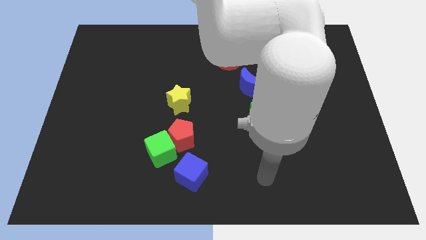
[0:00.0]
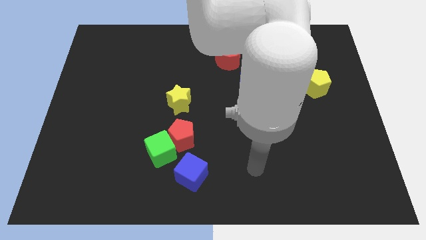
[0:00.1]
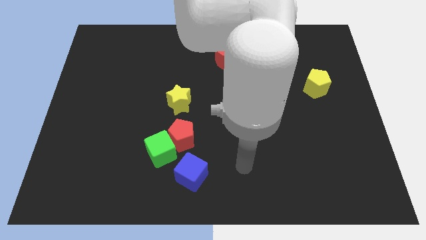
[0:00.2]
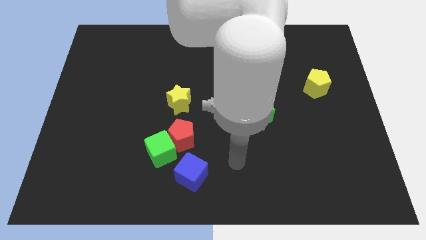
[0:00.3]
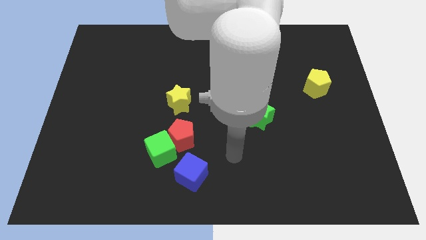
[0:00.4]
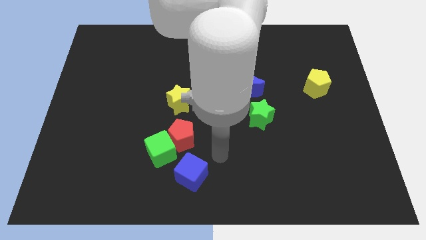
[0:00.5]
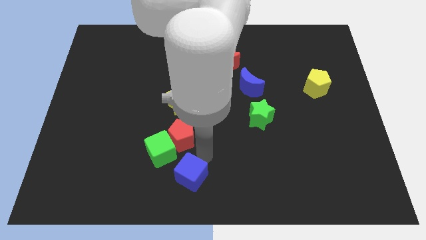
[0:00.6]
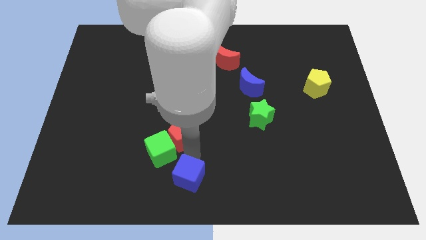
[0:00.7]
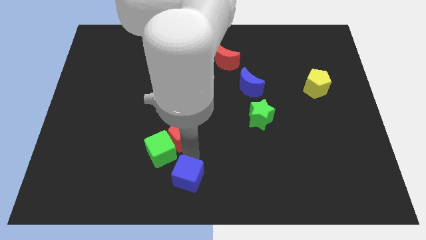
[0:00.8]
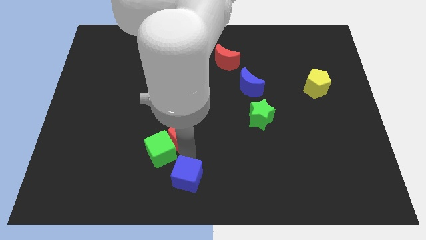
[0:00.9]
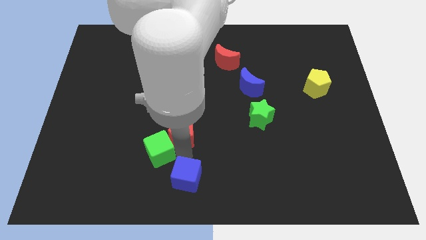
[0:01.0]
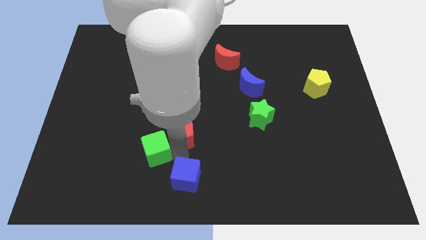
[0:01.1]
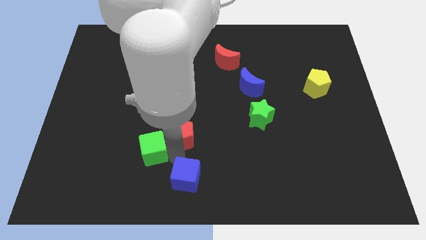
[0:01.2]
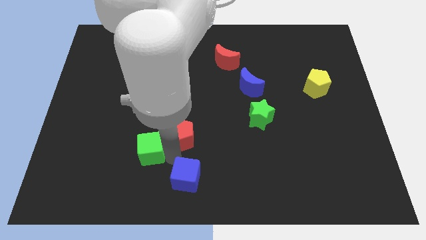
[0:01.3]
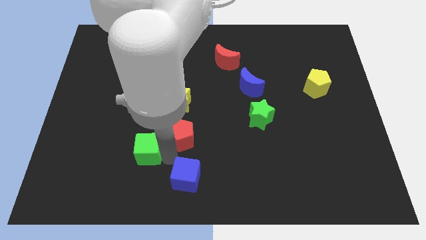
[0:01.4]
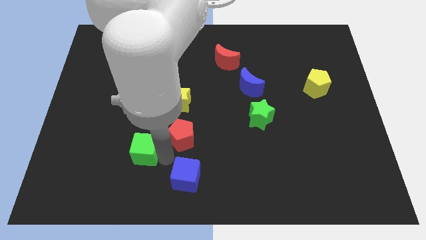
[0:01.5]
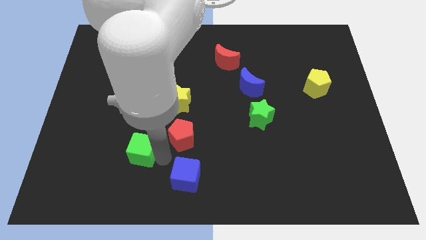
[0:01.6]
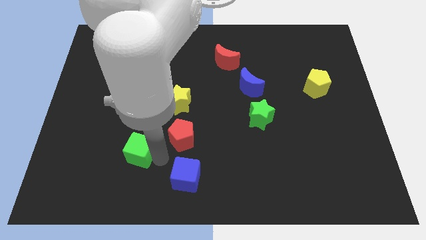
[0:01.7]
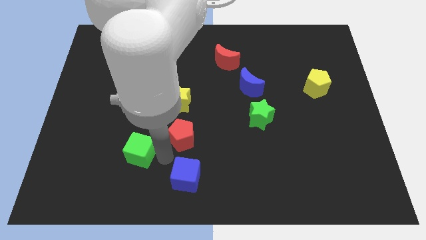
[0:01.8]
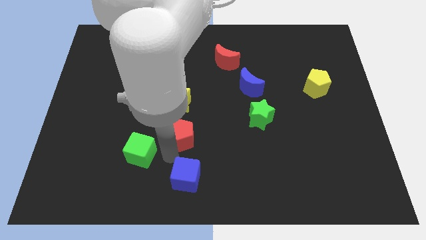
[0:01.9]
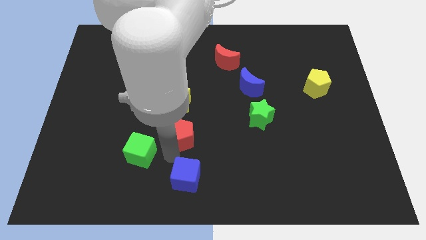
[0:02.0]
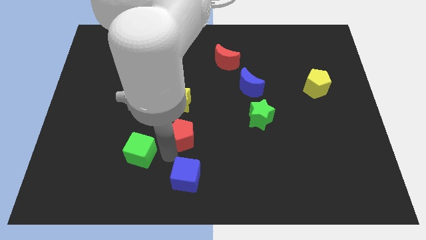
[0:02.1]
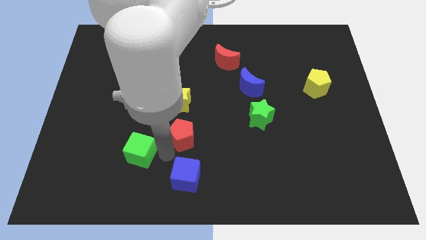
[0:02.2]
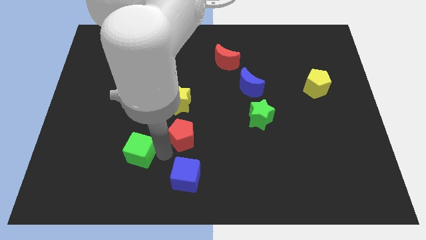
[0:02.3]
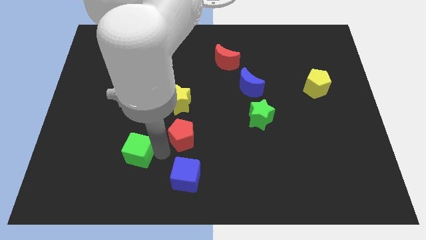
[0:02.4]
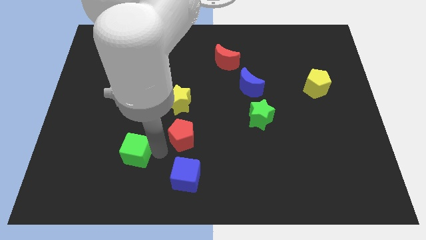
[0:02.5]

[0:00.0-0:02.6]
pull the green cube apart from the red pentagon and blue cube

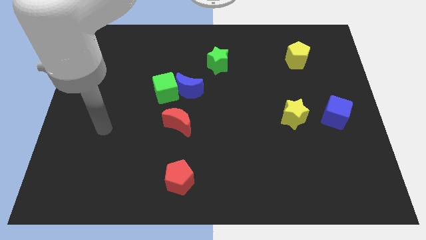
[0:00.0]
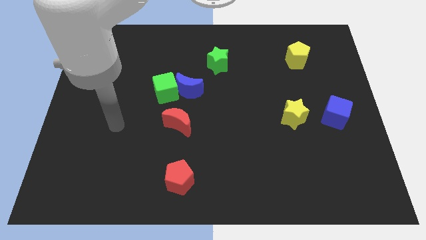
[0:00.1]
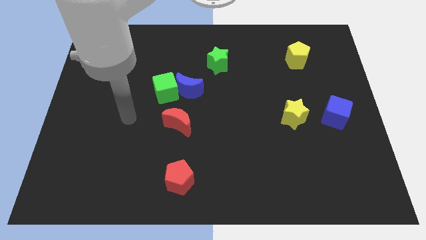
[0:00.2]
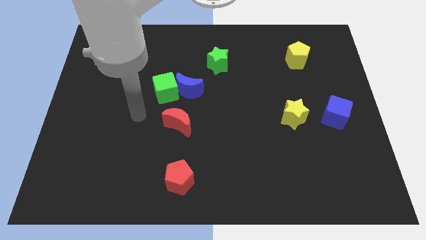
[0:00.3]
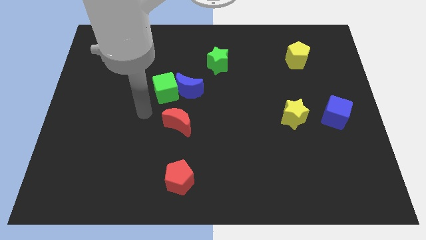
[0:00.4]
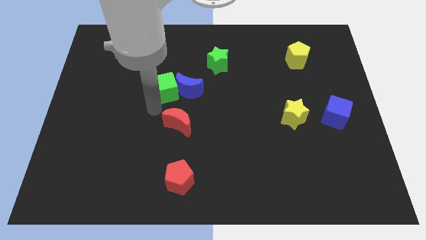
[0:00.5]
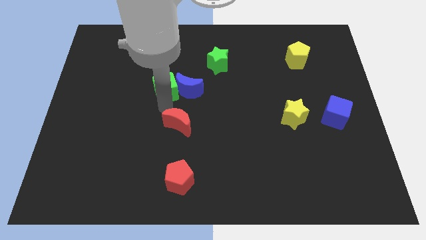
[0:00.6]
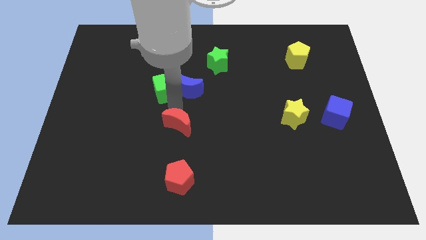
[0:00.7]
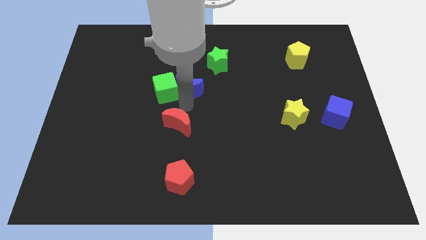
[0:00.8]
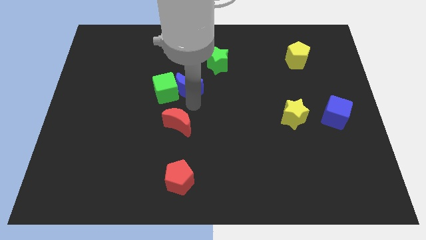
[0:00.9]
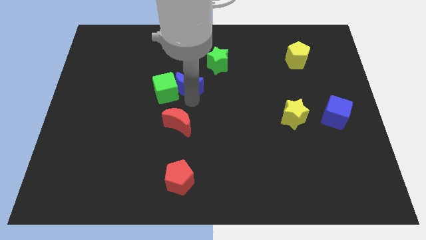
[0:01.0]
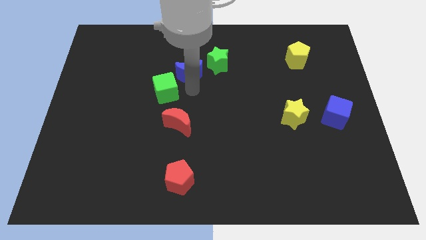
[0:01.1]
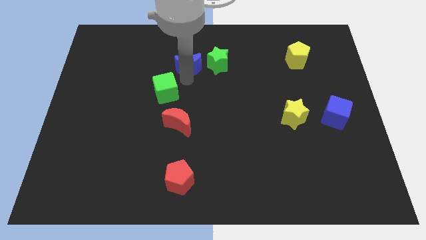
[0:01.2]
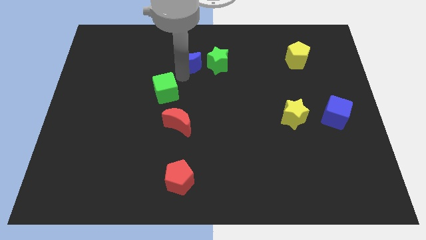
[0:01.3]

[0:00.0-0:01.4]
move the green cube away from the blue moon

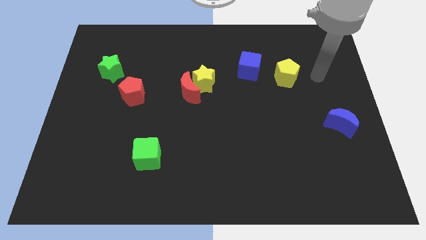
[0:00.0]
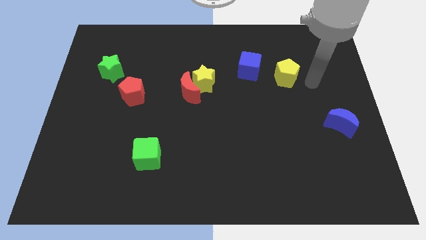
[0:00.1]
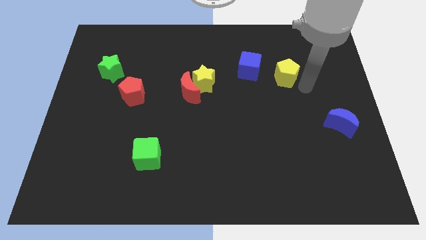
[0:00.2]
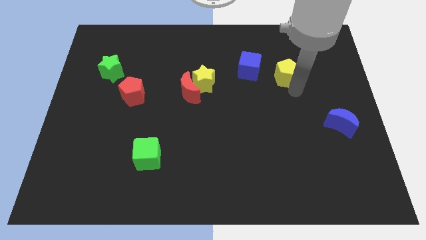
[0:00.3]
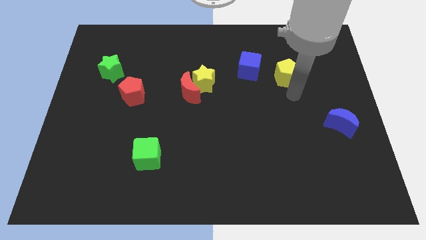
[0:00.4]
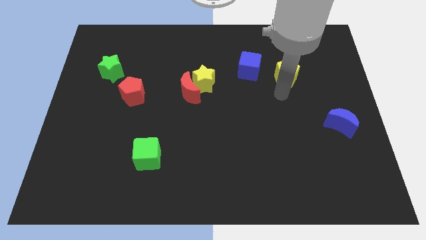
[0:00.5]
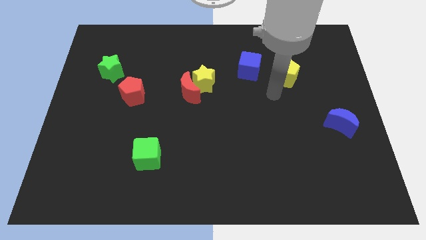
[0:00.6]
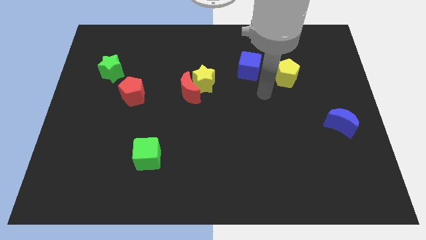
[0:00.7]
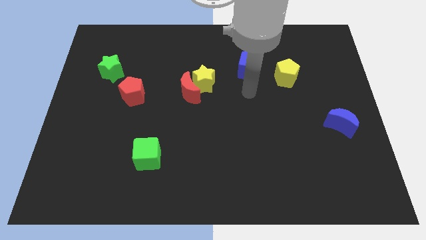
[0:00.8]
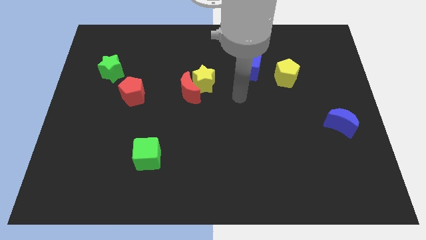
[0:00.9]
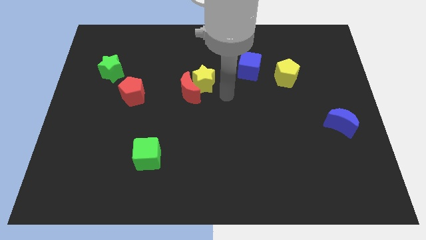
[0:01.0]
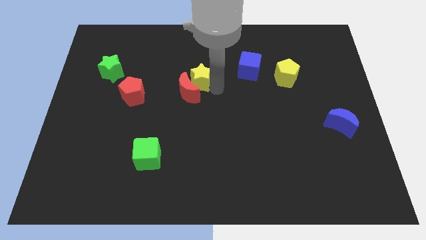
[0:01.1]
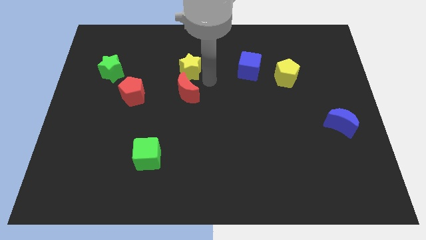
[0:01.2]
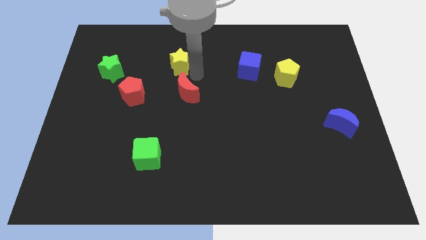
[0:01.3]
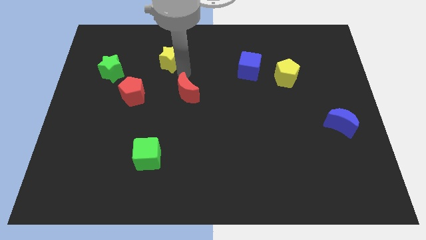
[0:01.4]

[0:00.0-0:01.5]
move the red moon away from the yellow star

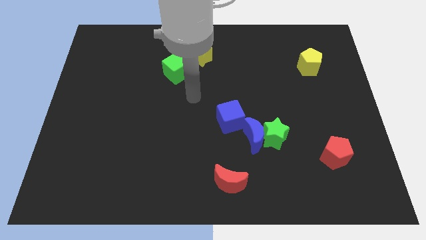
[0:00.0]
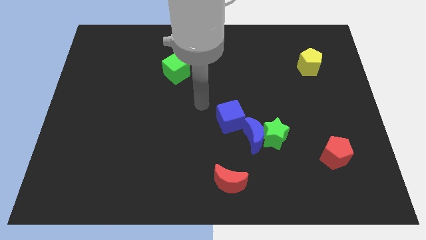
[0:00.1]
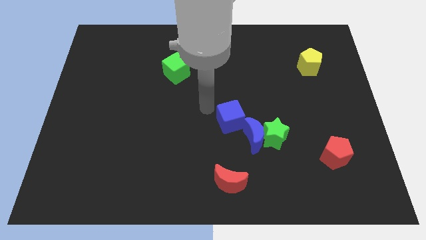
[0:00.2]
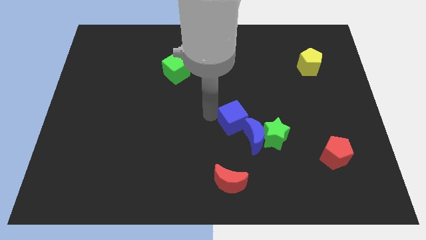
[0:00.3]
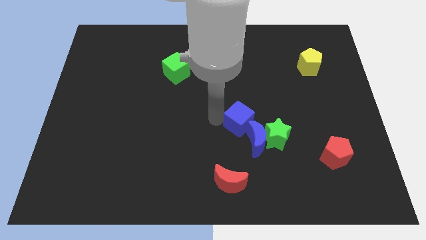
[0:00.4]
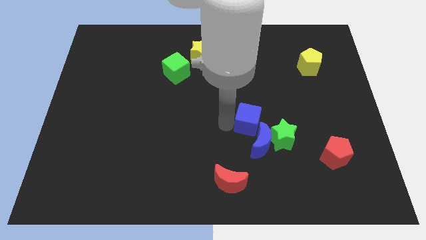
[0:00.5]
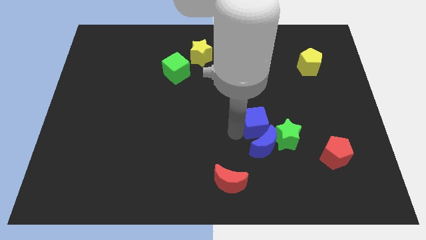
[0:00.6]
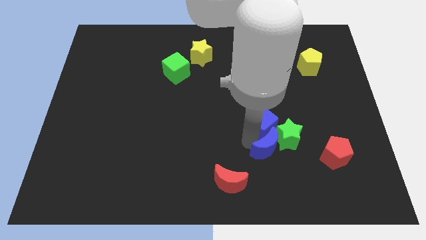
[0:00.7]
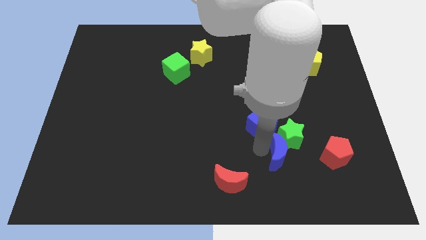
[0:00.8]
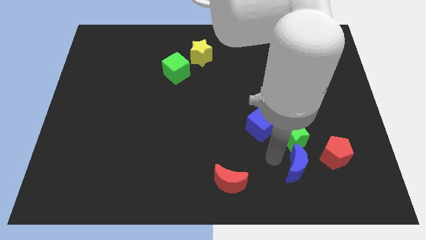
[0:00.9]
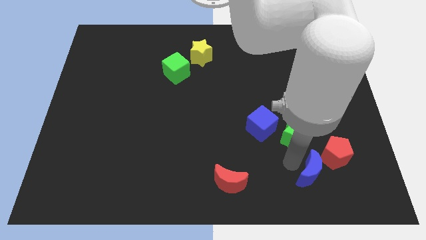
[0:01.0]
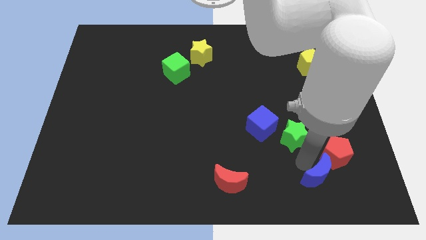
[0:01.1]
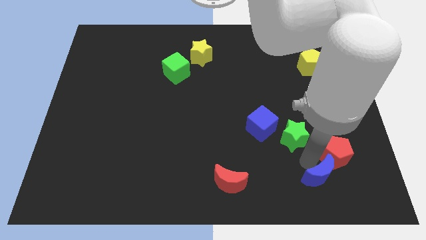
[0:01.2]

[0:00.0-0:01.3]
pull the green star apart from the blue moon

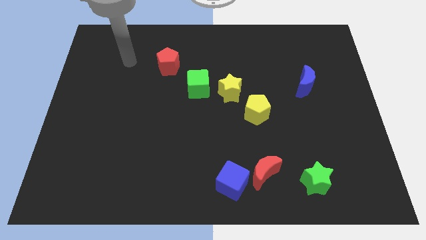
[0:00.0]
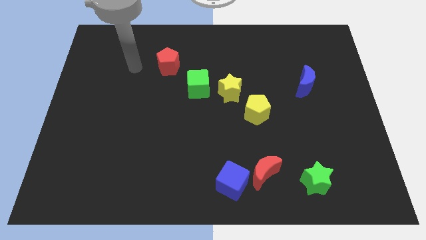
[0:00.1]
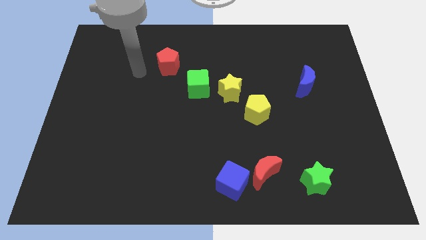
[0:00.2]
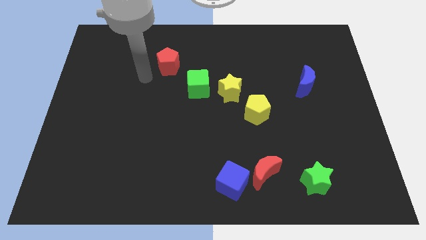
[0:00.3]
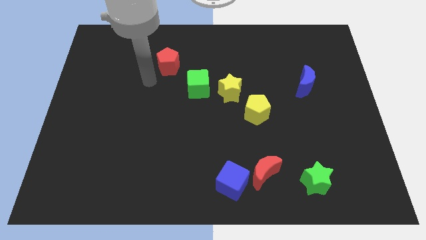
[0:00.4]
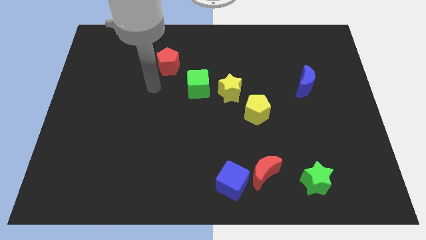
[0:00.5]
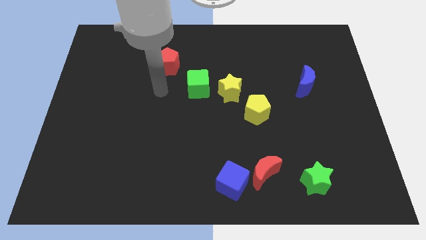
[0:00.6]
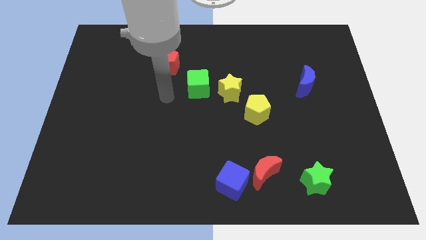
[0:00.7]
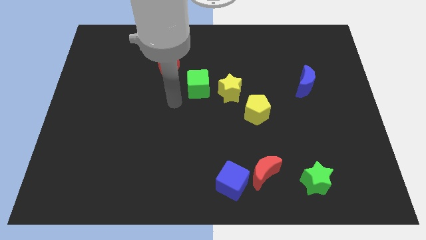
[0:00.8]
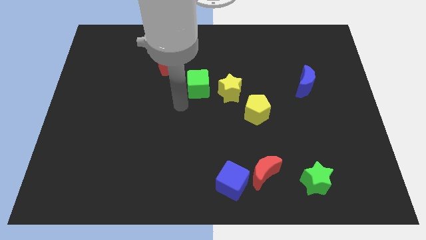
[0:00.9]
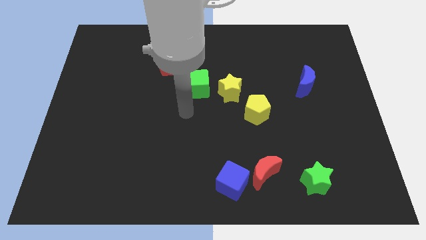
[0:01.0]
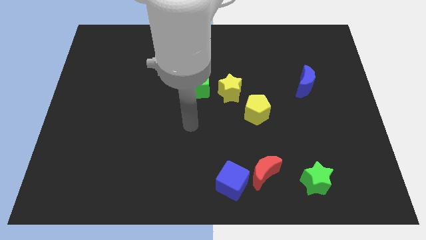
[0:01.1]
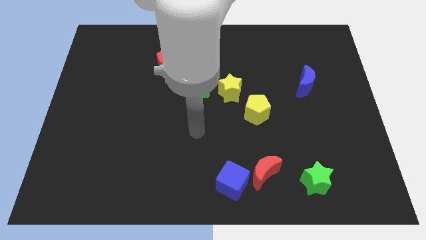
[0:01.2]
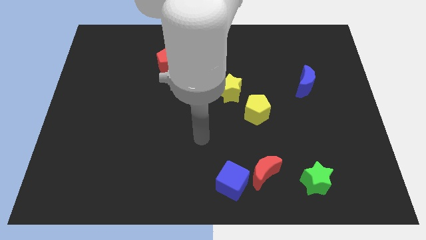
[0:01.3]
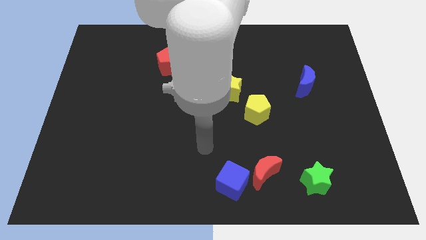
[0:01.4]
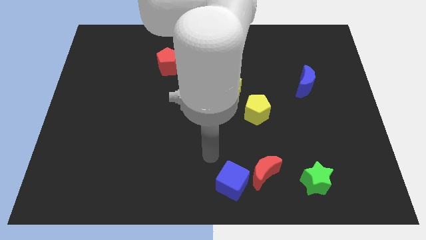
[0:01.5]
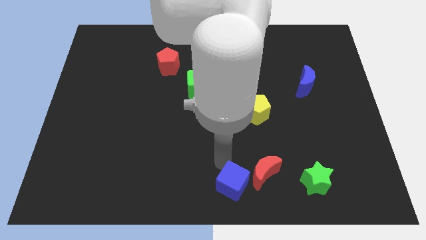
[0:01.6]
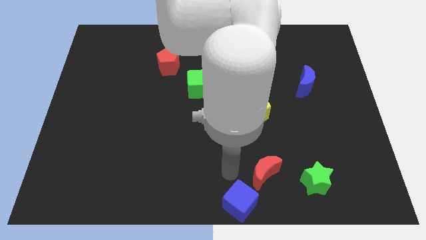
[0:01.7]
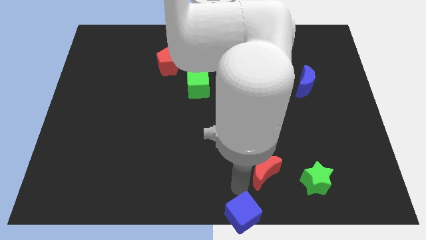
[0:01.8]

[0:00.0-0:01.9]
move the red moon away from the blue cube

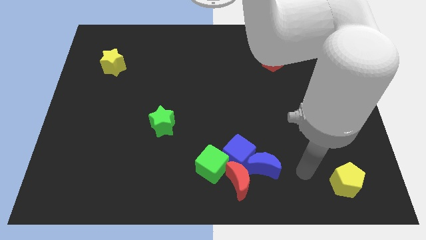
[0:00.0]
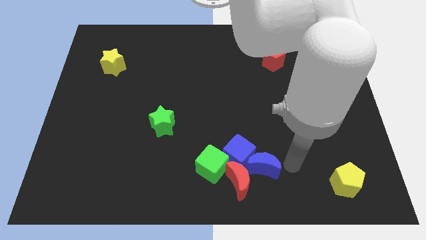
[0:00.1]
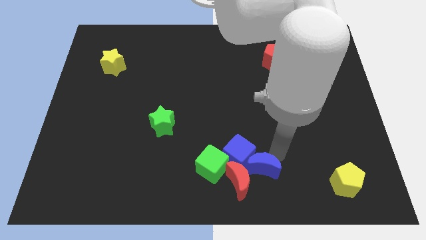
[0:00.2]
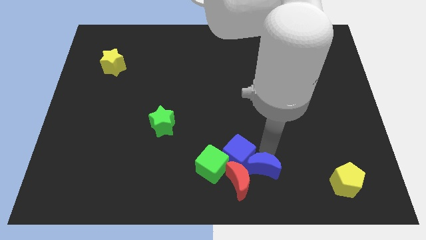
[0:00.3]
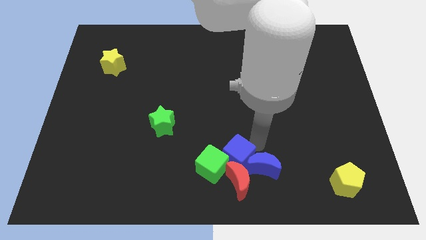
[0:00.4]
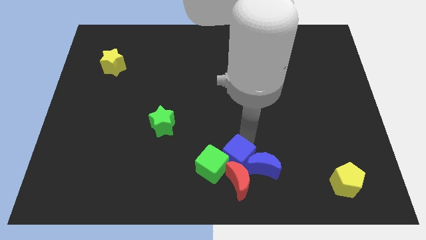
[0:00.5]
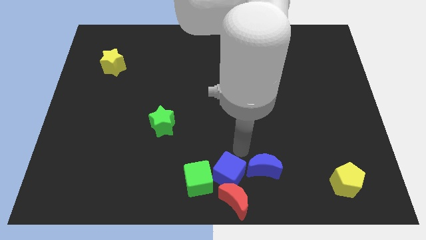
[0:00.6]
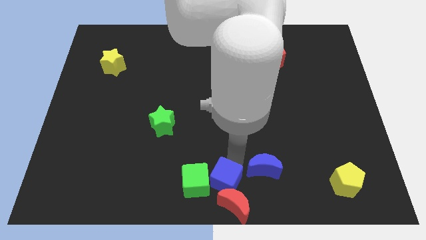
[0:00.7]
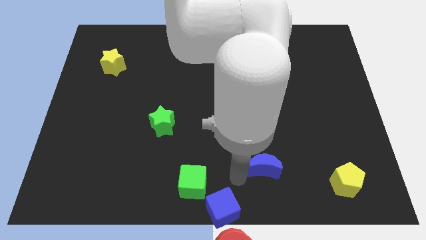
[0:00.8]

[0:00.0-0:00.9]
separate the blue moon from the blue cube and red moon
